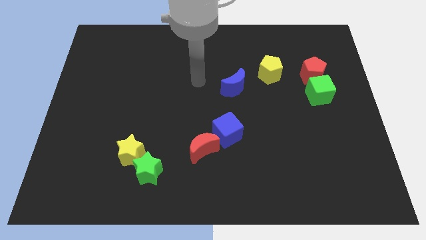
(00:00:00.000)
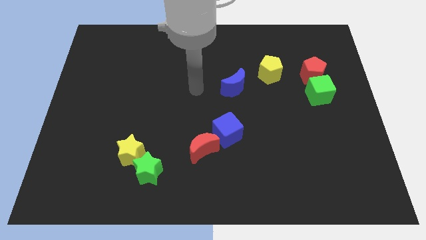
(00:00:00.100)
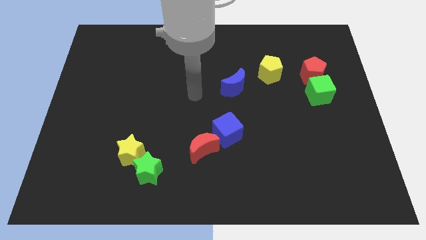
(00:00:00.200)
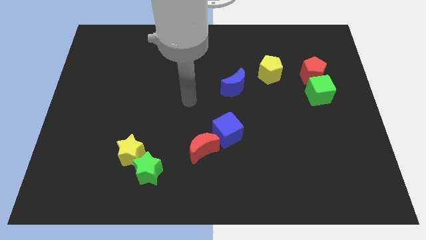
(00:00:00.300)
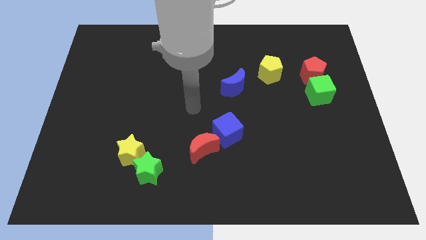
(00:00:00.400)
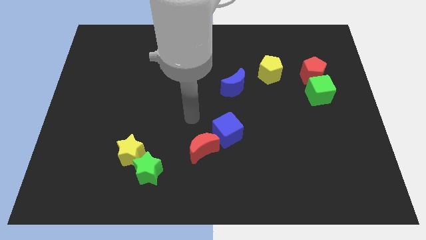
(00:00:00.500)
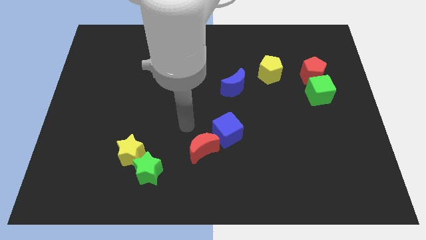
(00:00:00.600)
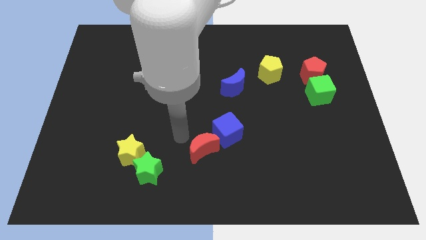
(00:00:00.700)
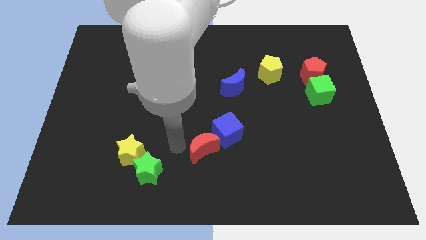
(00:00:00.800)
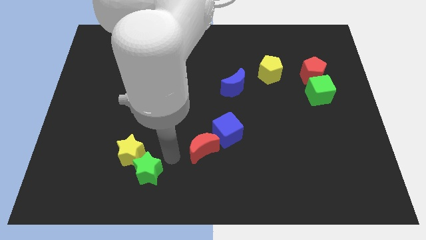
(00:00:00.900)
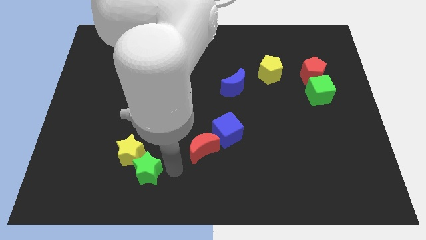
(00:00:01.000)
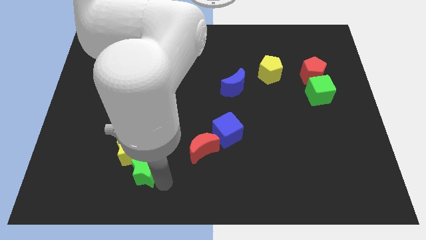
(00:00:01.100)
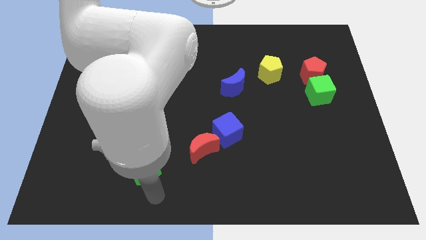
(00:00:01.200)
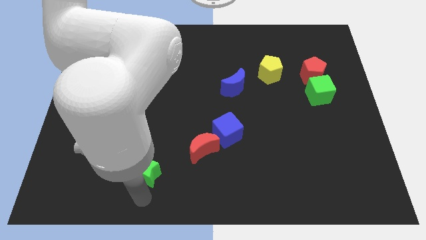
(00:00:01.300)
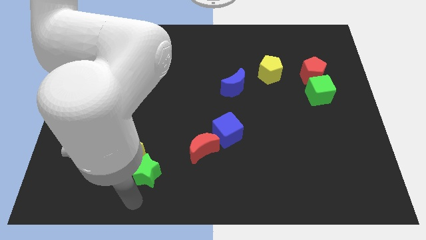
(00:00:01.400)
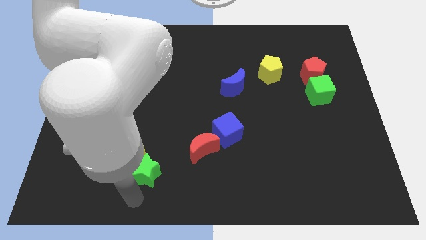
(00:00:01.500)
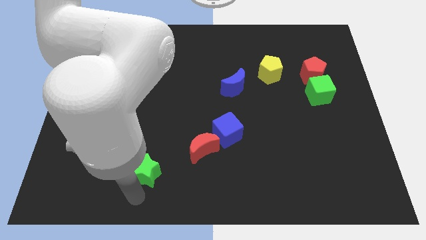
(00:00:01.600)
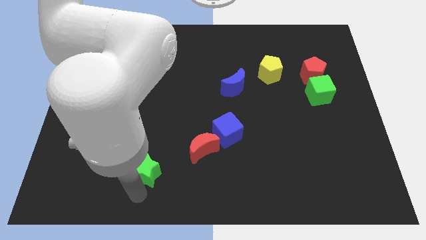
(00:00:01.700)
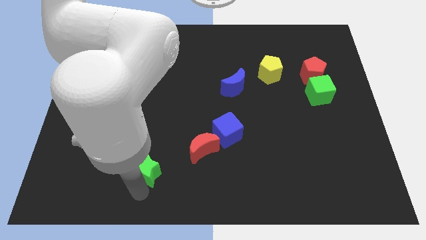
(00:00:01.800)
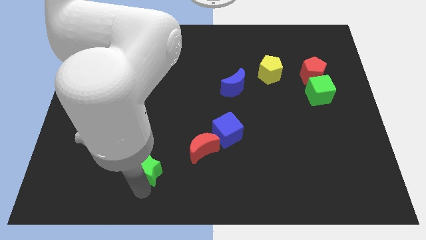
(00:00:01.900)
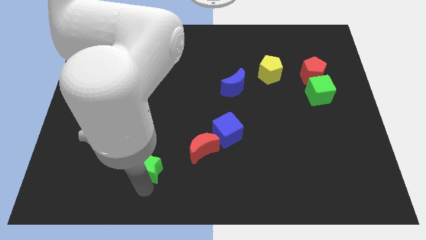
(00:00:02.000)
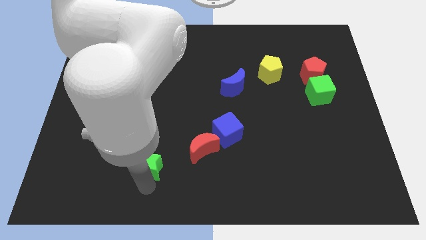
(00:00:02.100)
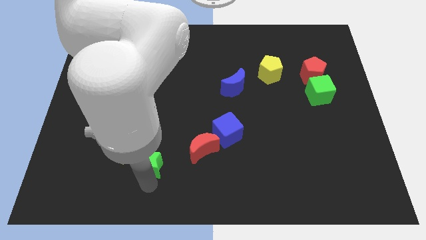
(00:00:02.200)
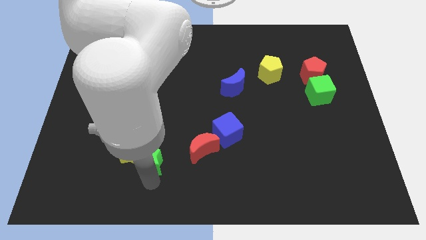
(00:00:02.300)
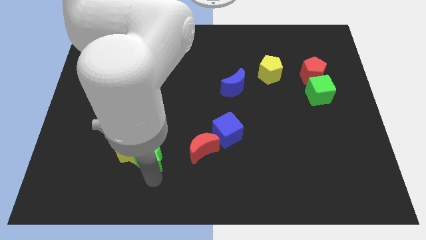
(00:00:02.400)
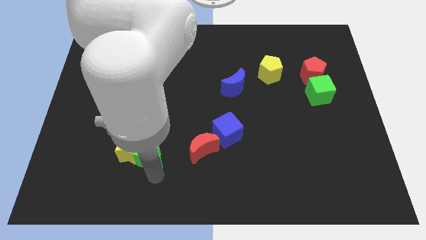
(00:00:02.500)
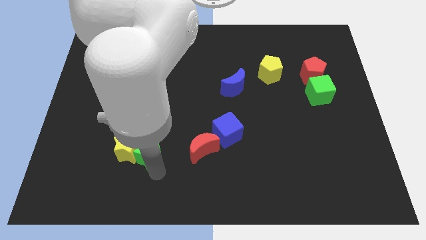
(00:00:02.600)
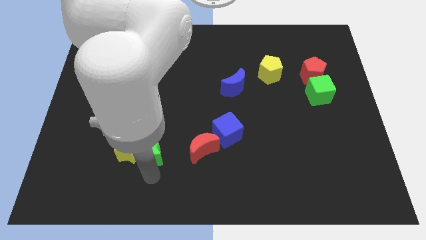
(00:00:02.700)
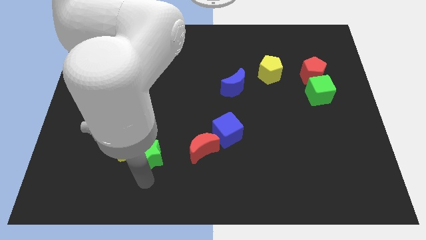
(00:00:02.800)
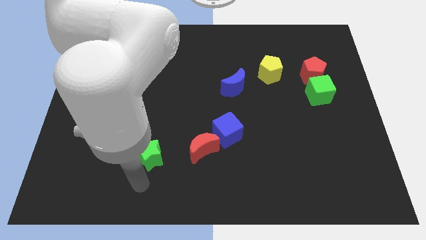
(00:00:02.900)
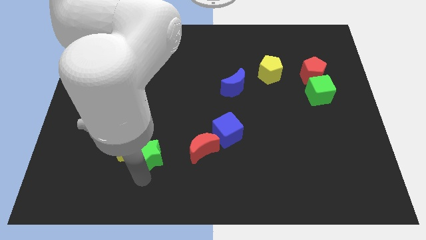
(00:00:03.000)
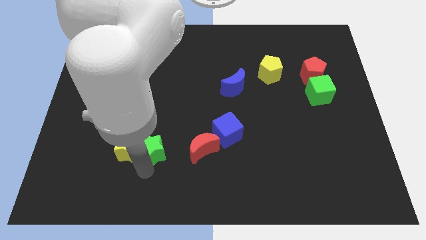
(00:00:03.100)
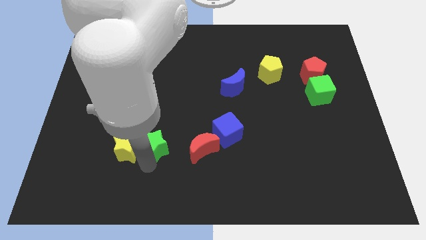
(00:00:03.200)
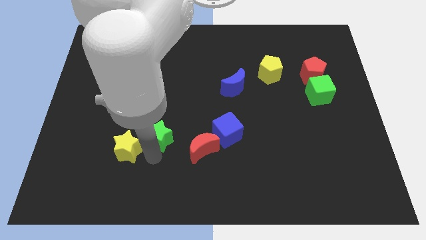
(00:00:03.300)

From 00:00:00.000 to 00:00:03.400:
move the green star up somewhat

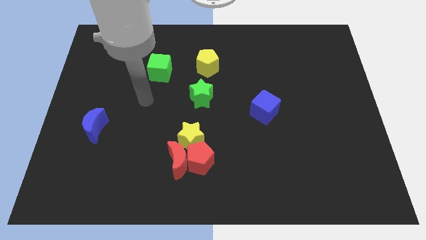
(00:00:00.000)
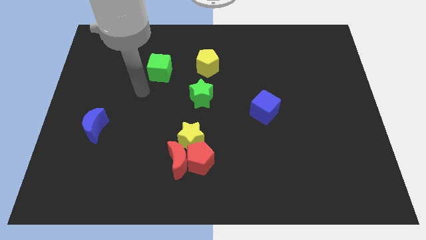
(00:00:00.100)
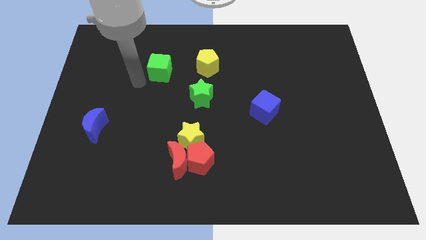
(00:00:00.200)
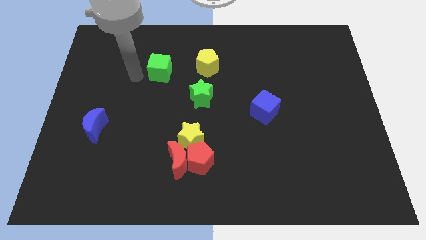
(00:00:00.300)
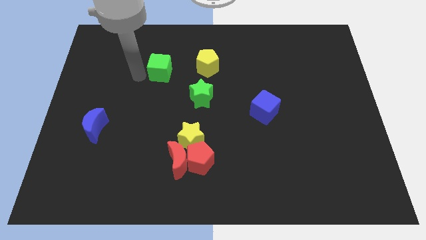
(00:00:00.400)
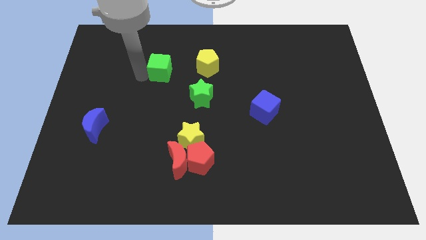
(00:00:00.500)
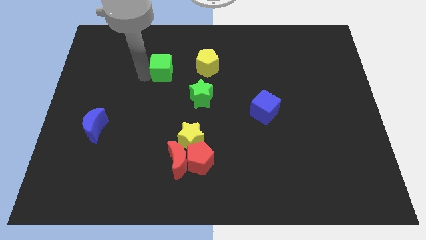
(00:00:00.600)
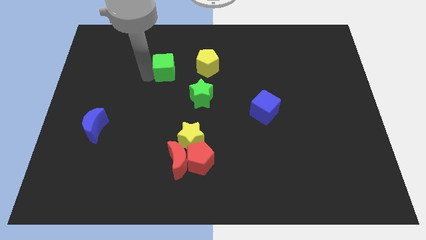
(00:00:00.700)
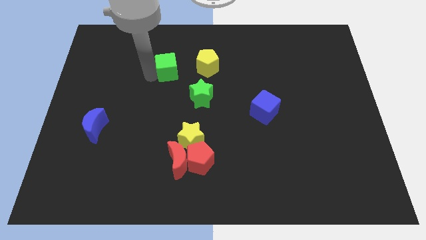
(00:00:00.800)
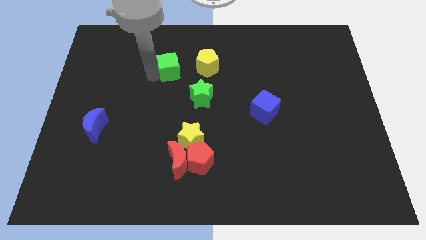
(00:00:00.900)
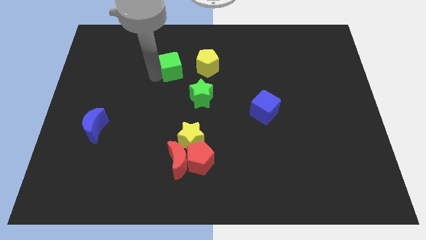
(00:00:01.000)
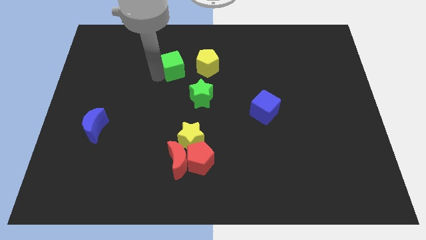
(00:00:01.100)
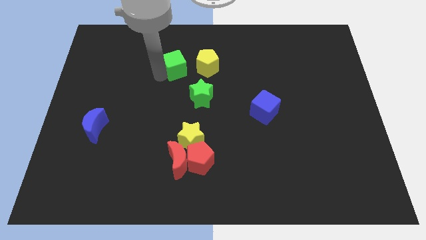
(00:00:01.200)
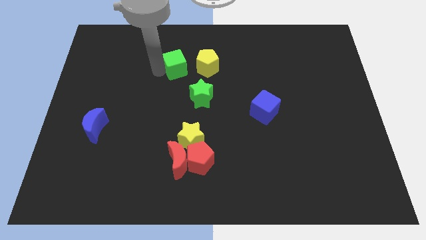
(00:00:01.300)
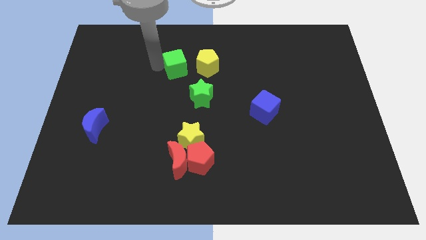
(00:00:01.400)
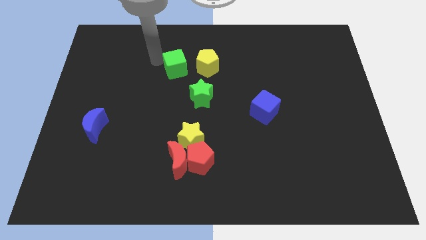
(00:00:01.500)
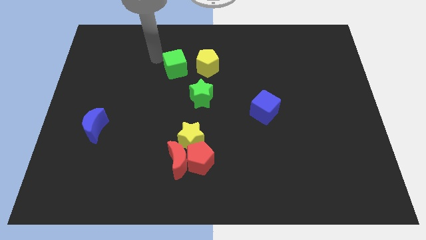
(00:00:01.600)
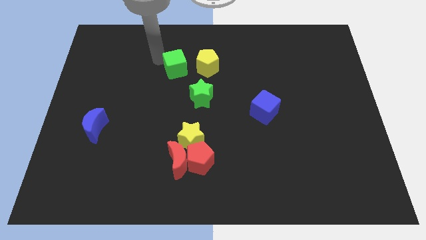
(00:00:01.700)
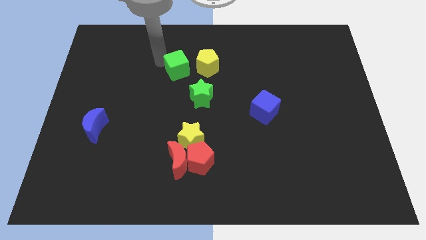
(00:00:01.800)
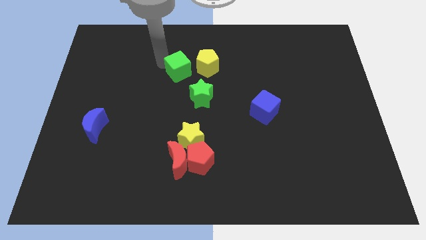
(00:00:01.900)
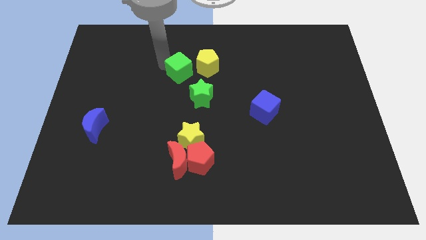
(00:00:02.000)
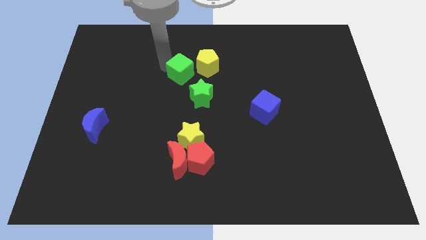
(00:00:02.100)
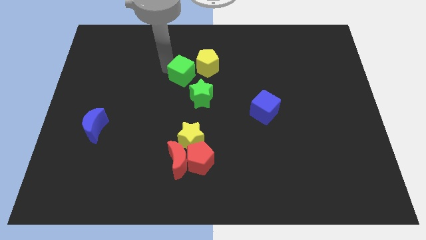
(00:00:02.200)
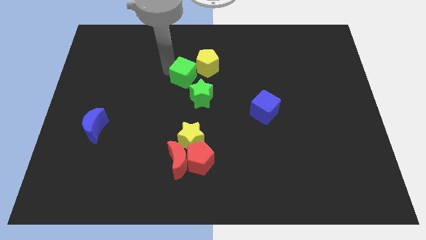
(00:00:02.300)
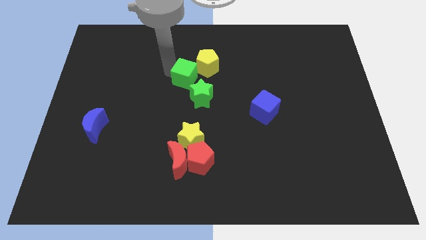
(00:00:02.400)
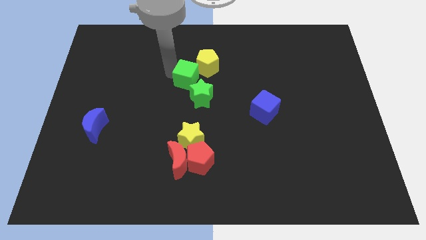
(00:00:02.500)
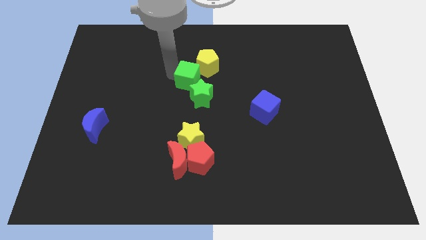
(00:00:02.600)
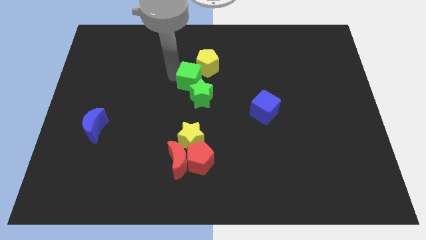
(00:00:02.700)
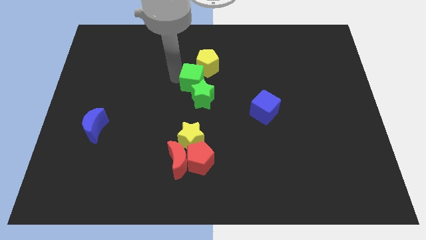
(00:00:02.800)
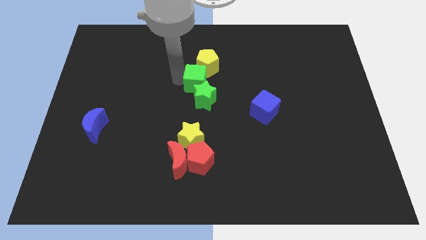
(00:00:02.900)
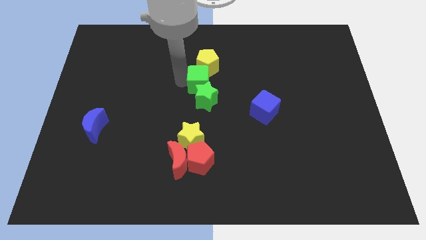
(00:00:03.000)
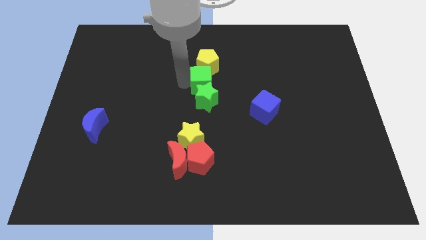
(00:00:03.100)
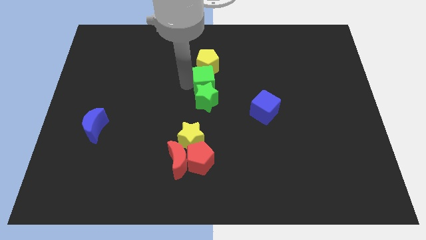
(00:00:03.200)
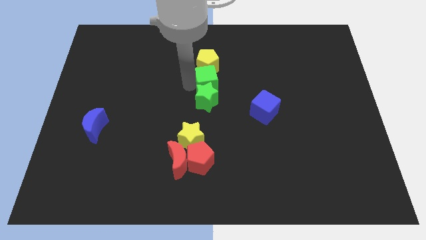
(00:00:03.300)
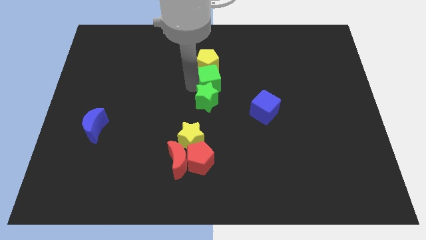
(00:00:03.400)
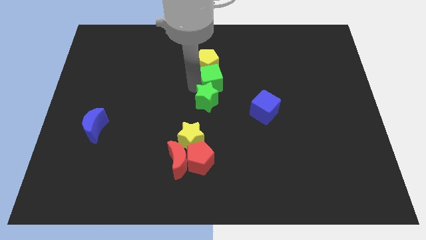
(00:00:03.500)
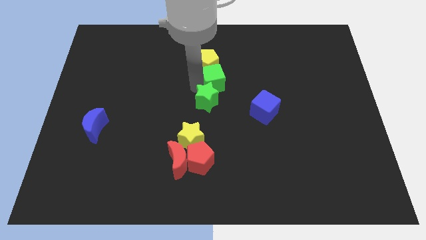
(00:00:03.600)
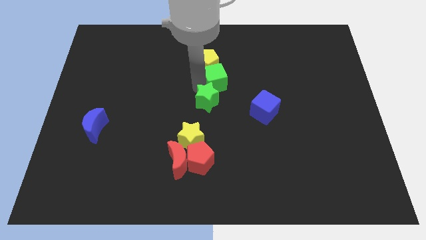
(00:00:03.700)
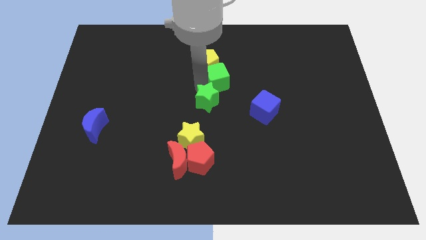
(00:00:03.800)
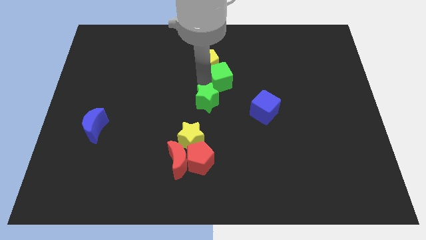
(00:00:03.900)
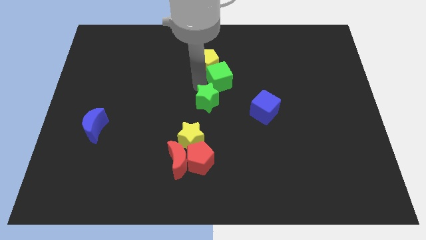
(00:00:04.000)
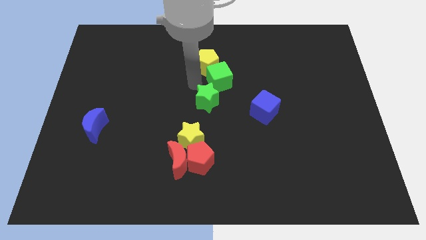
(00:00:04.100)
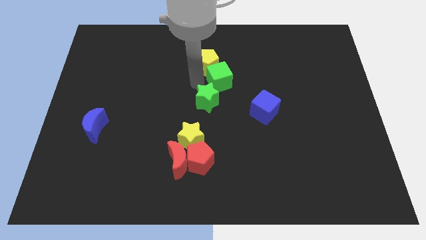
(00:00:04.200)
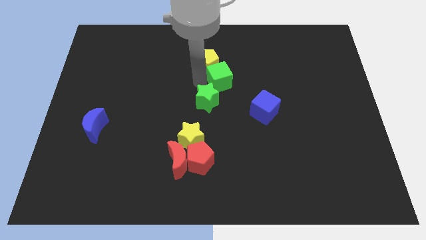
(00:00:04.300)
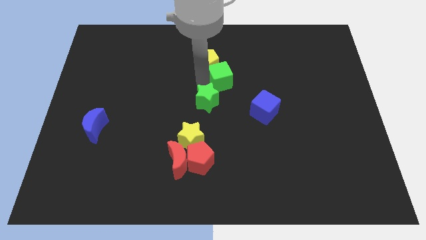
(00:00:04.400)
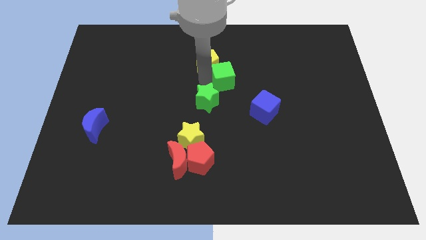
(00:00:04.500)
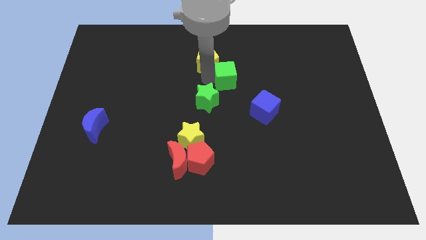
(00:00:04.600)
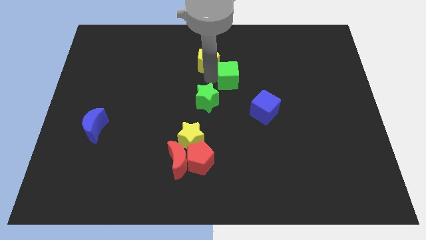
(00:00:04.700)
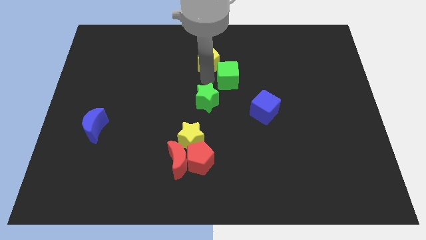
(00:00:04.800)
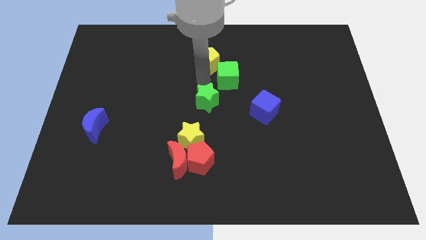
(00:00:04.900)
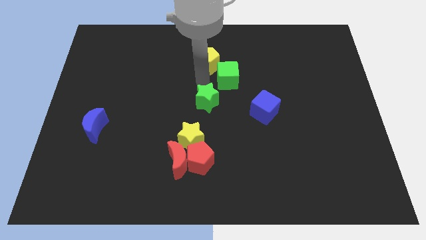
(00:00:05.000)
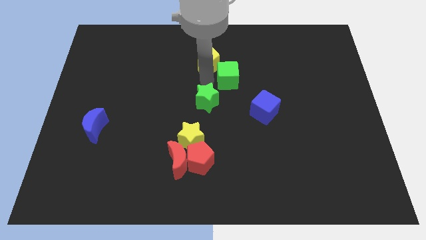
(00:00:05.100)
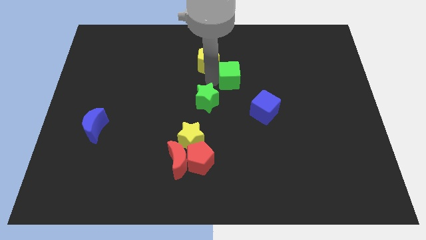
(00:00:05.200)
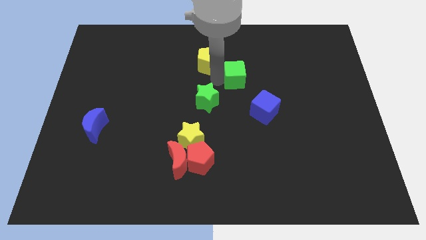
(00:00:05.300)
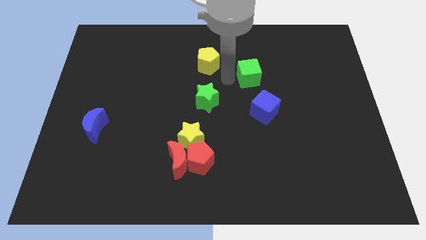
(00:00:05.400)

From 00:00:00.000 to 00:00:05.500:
push the green cube to the right
